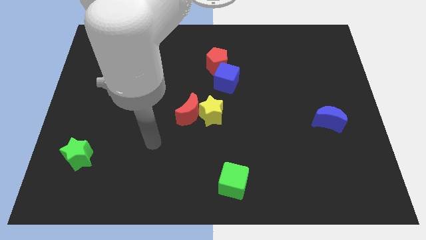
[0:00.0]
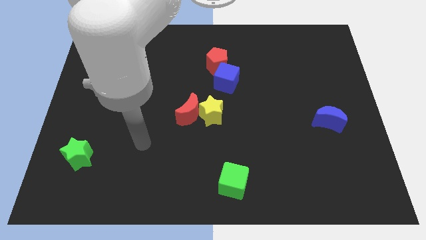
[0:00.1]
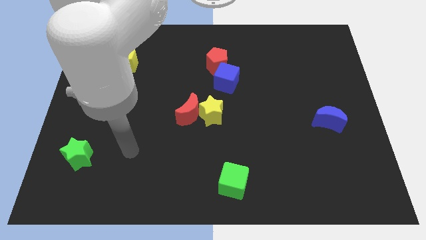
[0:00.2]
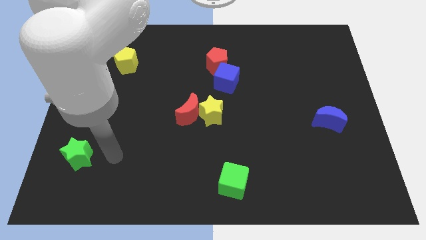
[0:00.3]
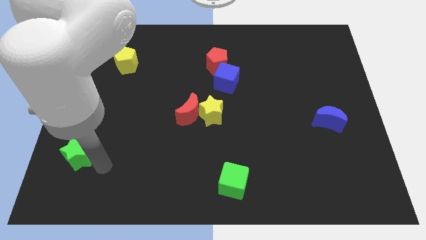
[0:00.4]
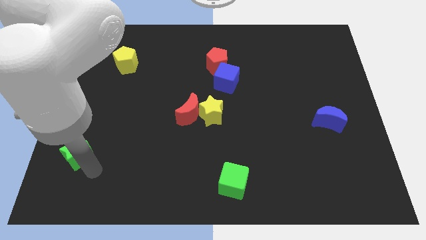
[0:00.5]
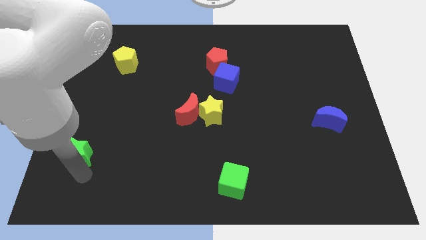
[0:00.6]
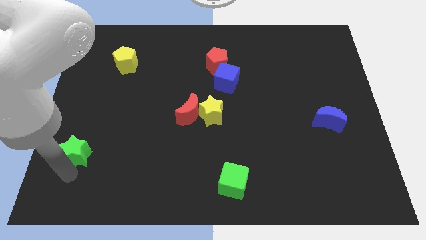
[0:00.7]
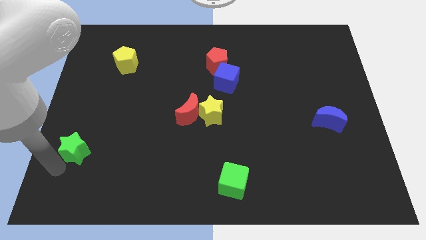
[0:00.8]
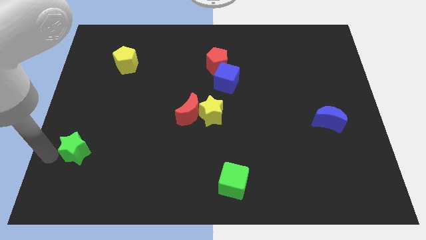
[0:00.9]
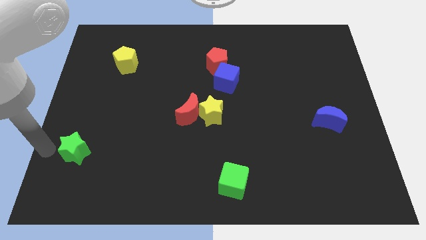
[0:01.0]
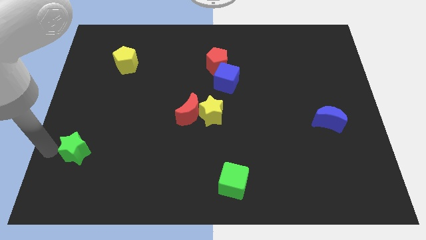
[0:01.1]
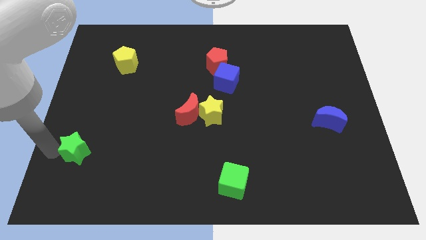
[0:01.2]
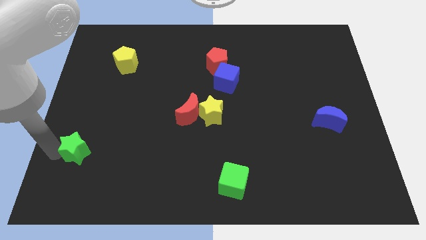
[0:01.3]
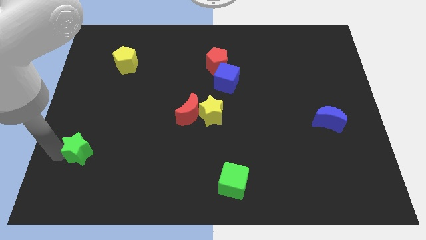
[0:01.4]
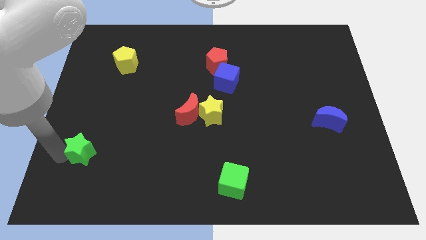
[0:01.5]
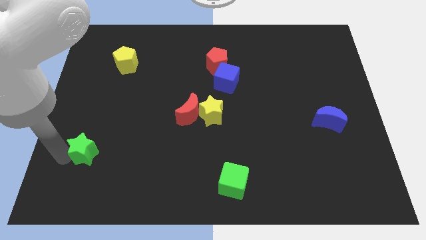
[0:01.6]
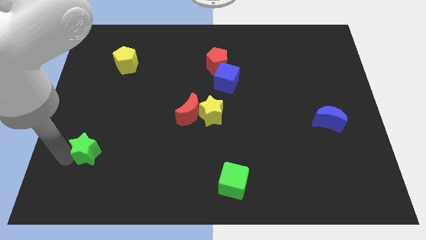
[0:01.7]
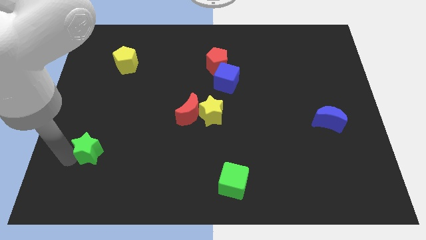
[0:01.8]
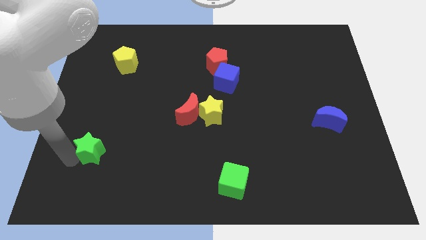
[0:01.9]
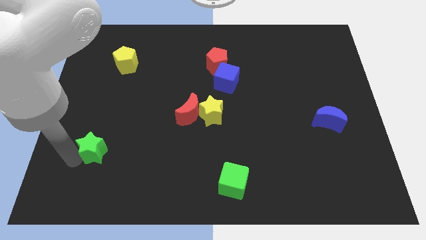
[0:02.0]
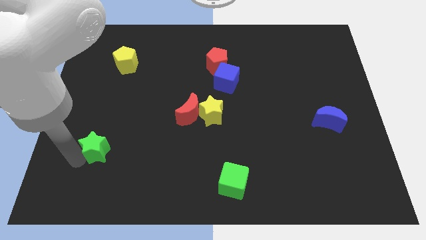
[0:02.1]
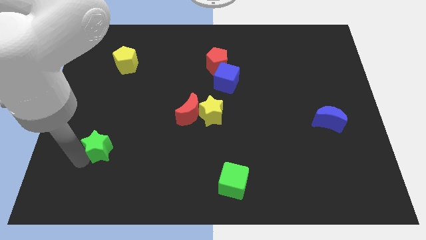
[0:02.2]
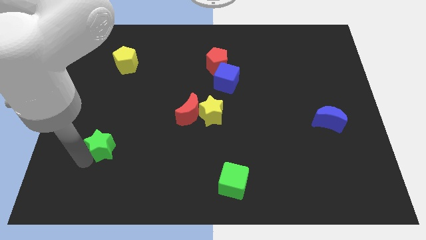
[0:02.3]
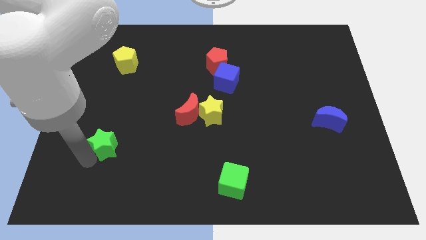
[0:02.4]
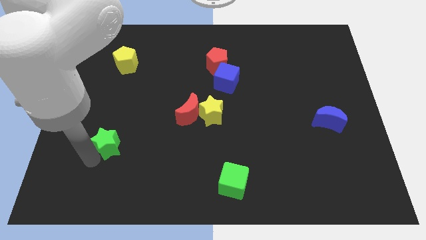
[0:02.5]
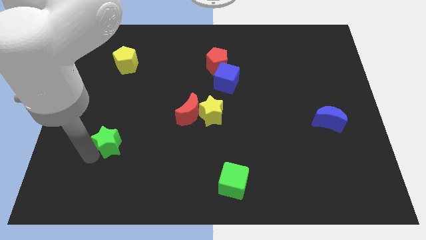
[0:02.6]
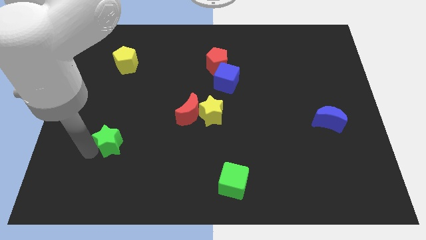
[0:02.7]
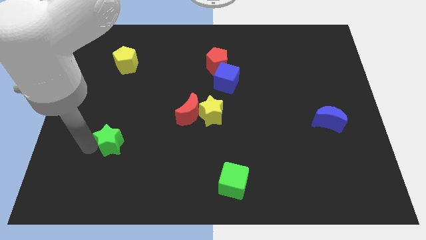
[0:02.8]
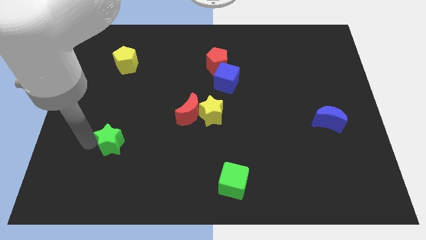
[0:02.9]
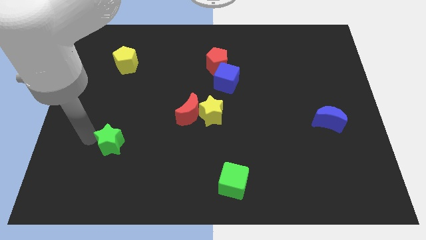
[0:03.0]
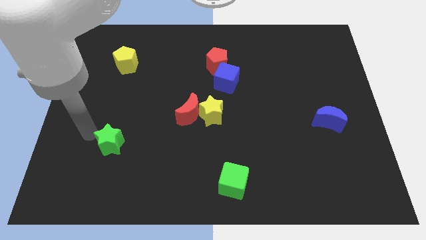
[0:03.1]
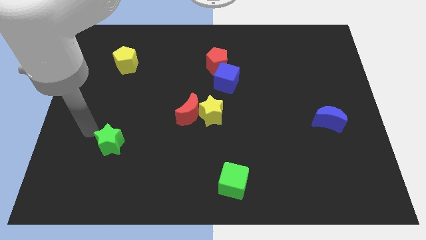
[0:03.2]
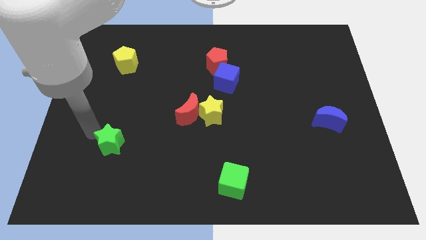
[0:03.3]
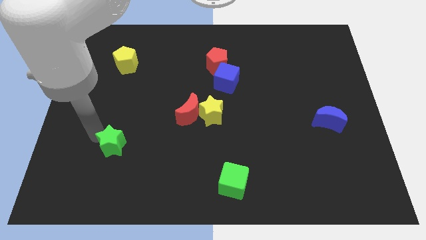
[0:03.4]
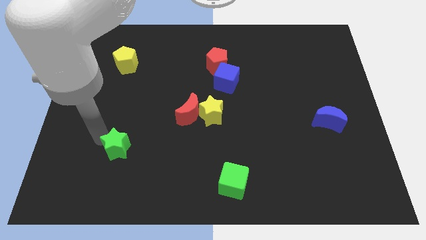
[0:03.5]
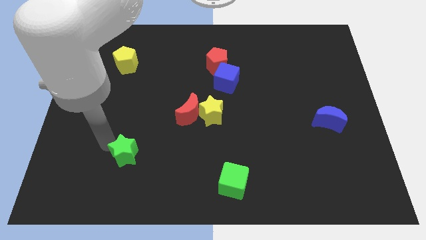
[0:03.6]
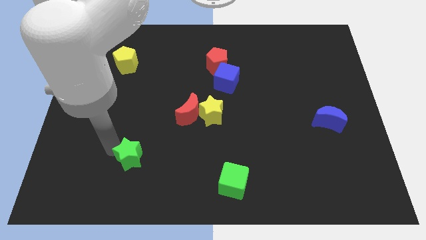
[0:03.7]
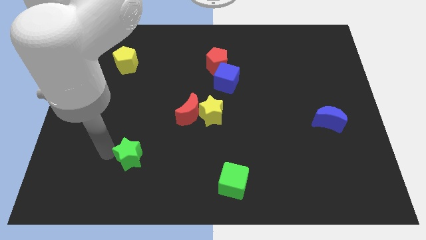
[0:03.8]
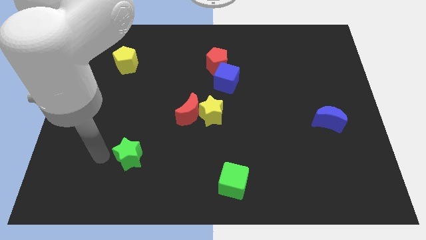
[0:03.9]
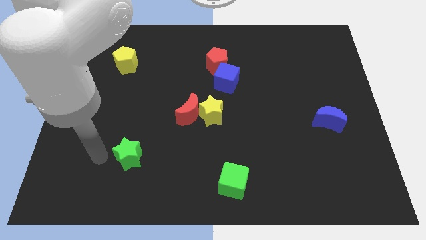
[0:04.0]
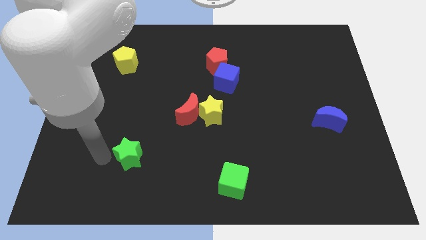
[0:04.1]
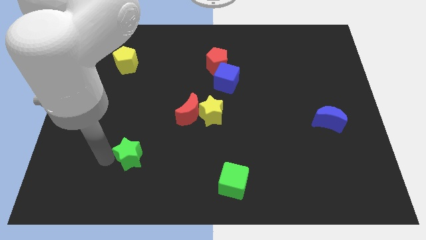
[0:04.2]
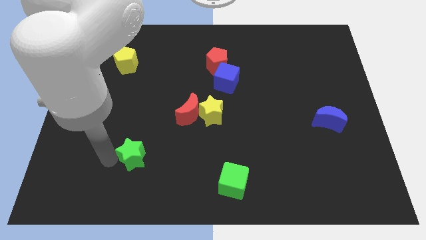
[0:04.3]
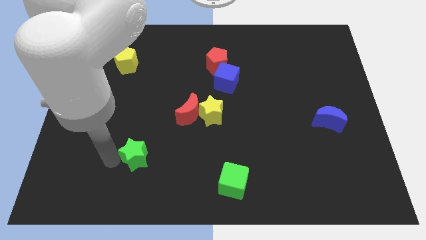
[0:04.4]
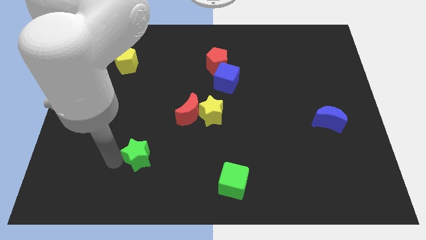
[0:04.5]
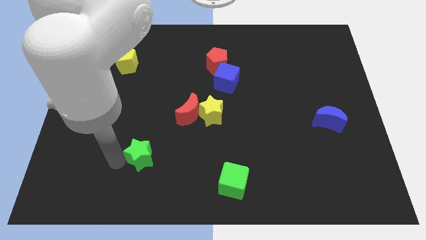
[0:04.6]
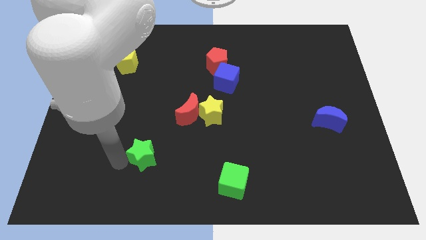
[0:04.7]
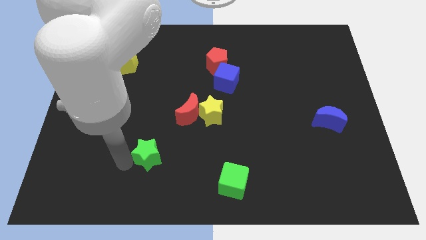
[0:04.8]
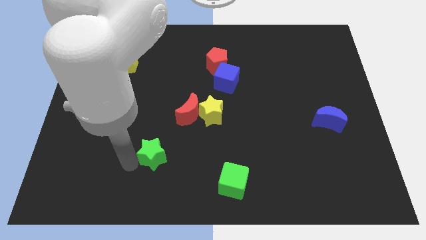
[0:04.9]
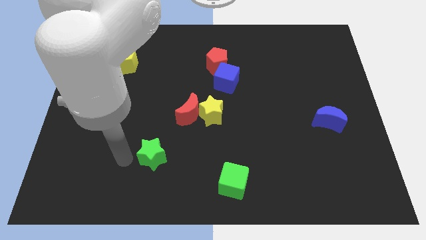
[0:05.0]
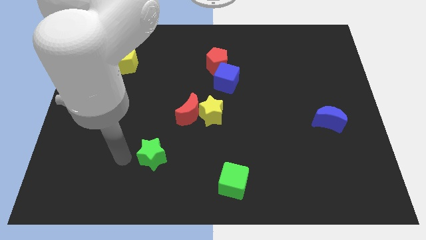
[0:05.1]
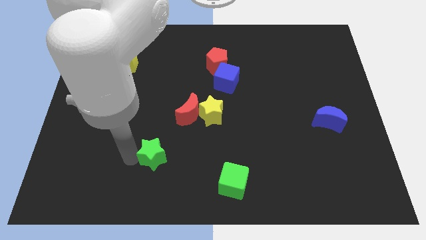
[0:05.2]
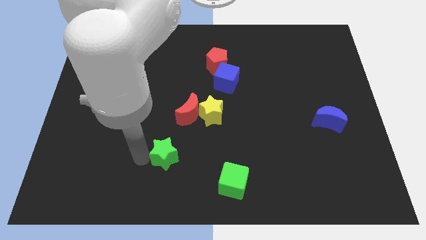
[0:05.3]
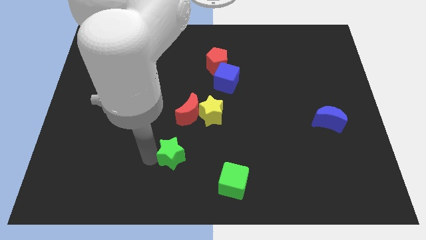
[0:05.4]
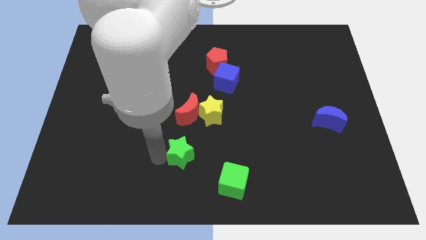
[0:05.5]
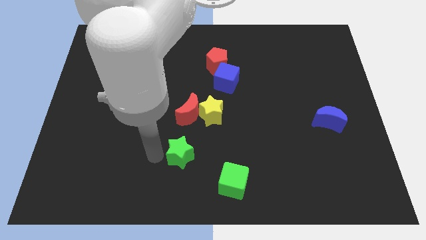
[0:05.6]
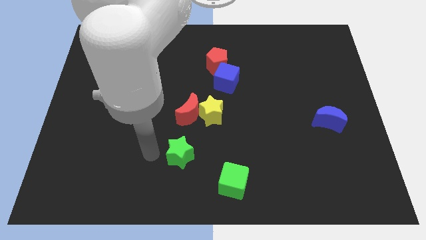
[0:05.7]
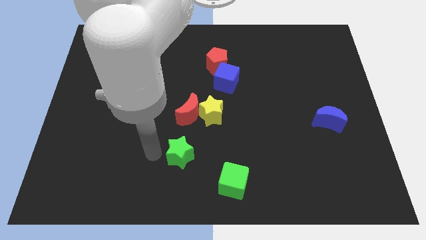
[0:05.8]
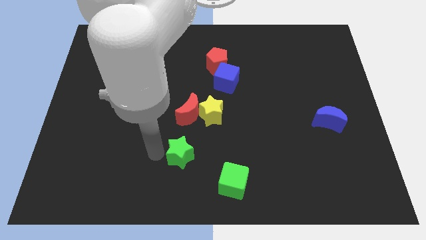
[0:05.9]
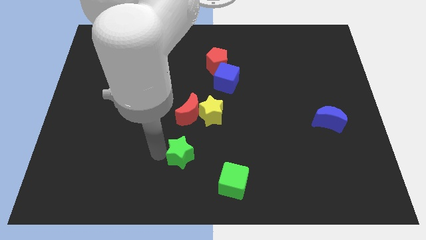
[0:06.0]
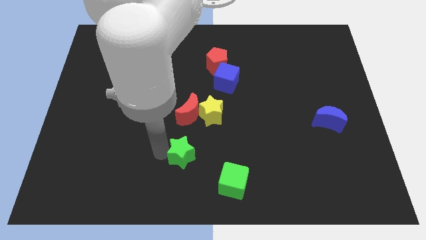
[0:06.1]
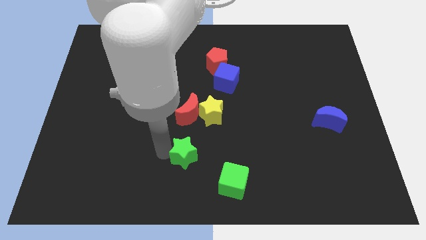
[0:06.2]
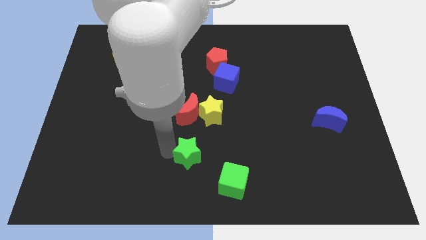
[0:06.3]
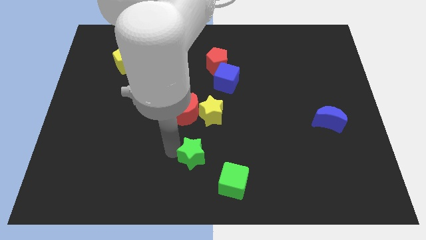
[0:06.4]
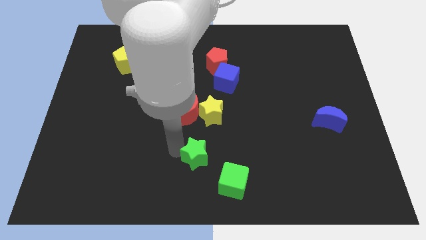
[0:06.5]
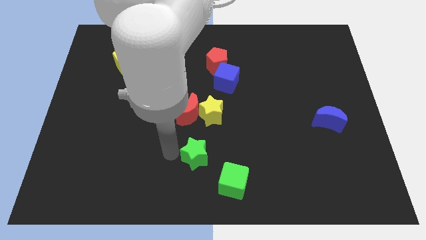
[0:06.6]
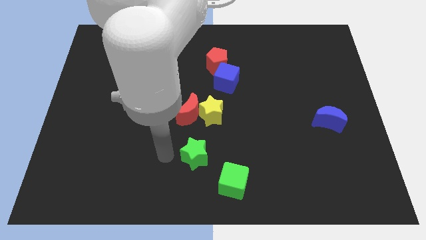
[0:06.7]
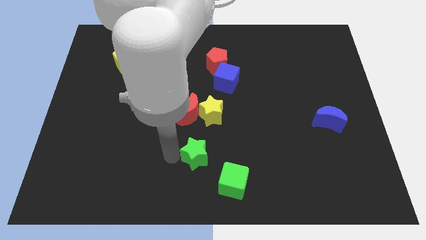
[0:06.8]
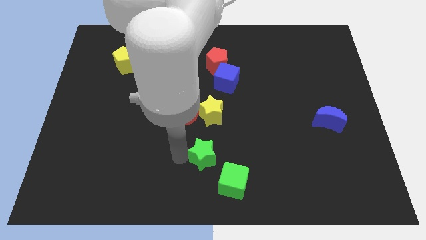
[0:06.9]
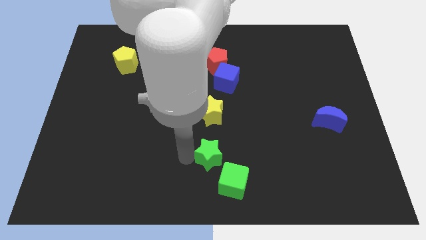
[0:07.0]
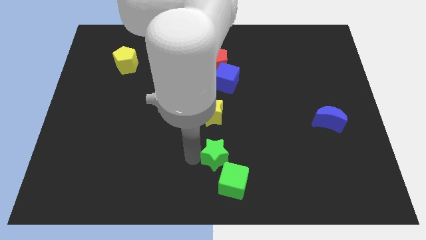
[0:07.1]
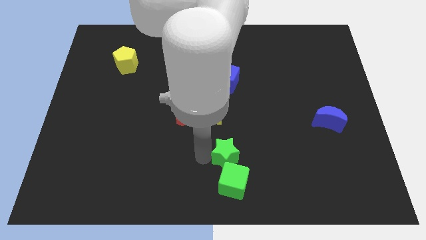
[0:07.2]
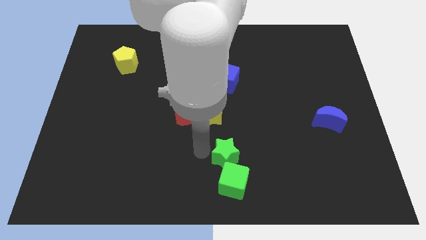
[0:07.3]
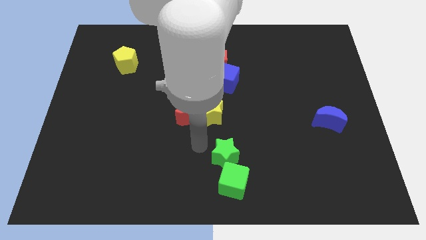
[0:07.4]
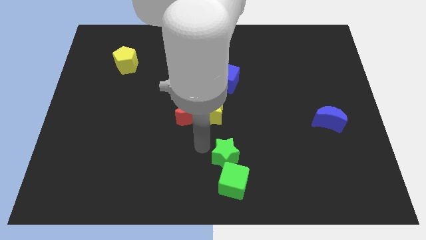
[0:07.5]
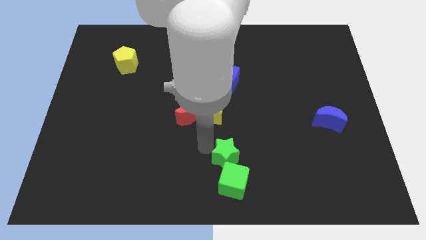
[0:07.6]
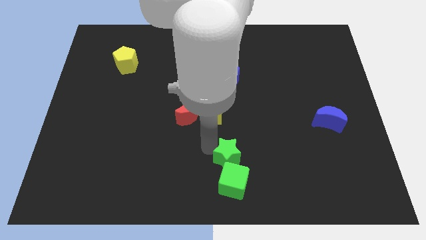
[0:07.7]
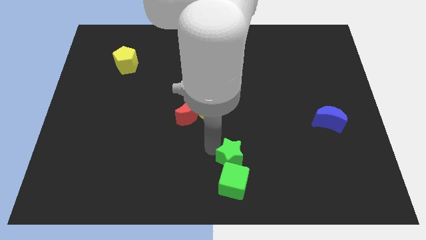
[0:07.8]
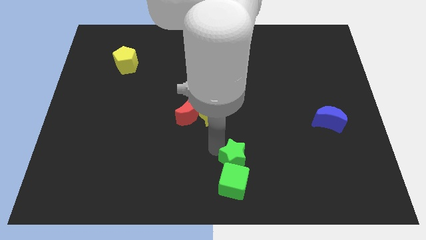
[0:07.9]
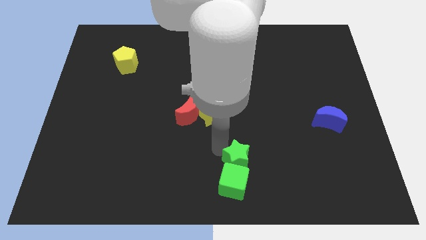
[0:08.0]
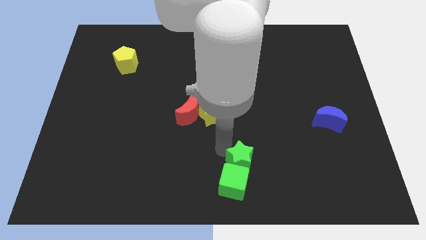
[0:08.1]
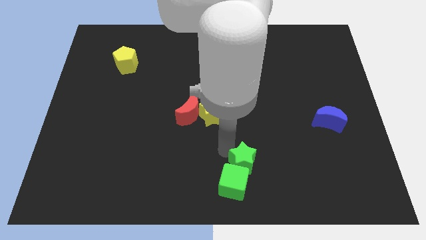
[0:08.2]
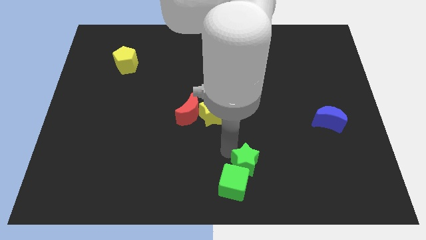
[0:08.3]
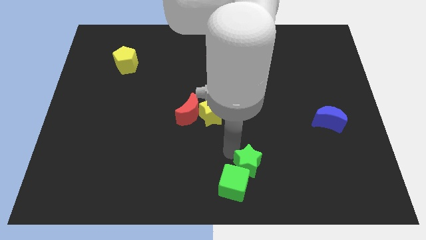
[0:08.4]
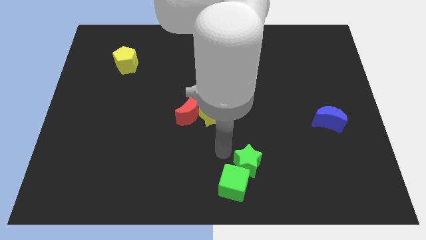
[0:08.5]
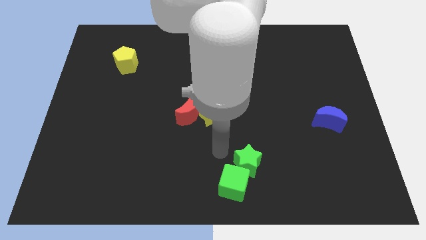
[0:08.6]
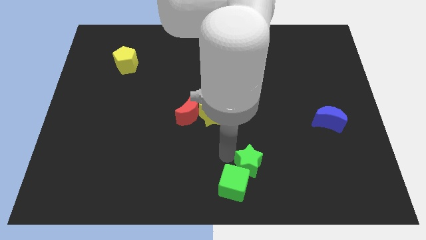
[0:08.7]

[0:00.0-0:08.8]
move the green star right of the green cube
